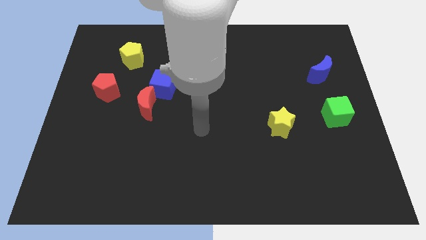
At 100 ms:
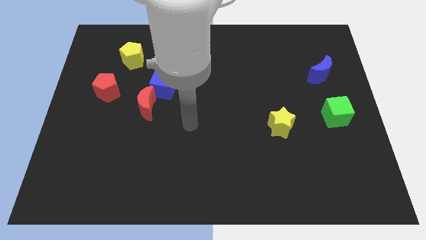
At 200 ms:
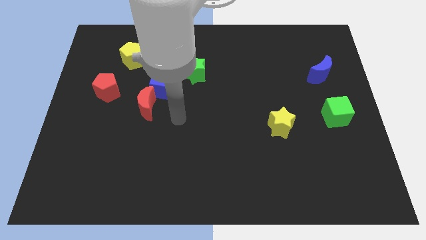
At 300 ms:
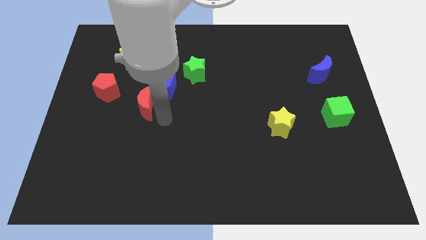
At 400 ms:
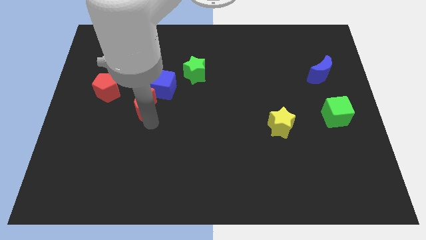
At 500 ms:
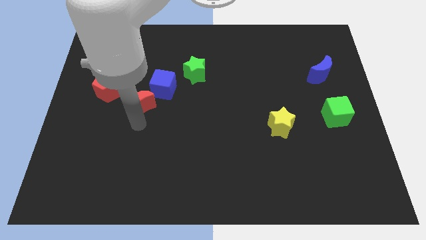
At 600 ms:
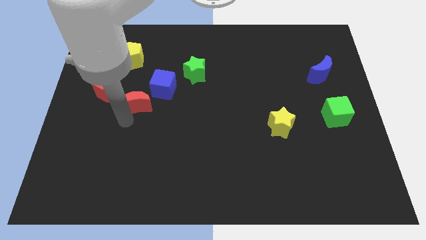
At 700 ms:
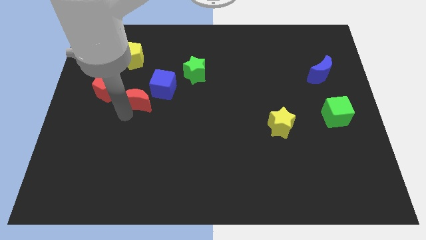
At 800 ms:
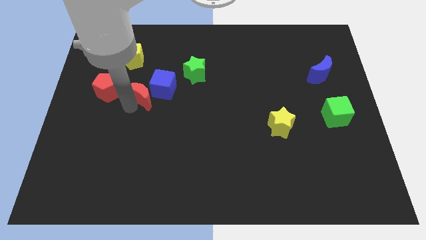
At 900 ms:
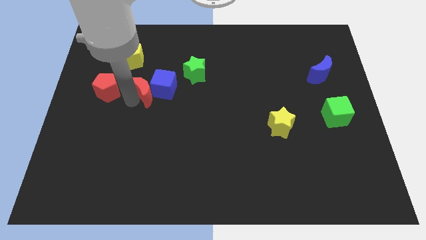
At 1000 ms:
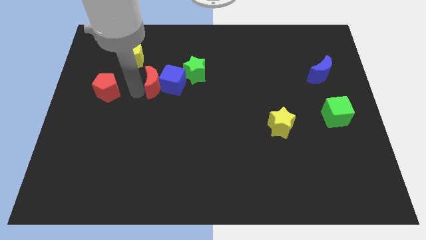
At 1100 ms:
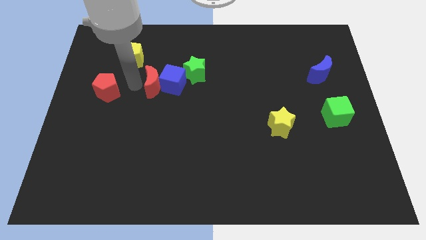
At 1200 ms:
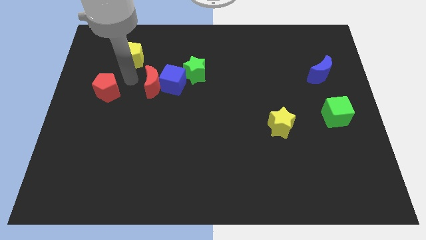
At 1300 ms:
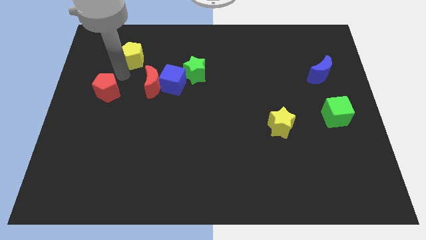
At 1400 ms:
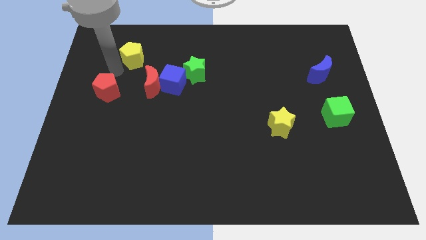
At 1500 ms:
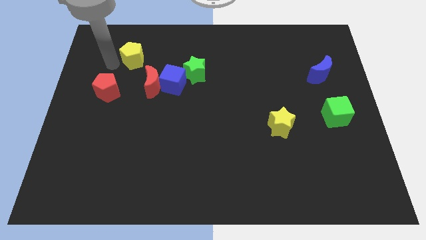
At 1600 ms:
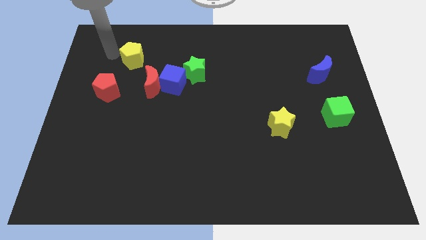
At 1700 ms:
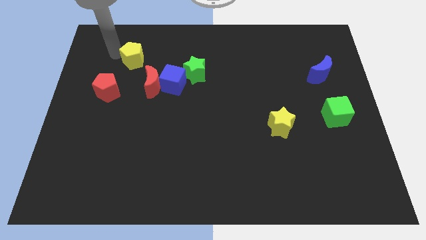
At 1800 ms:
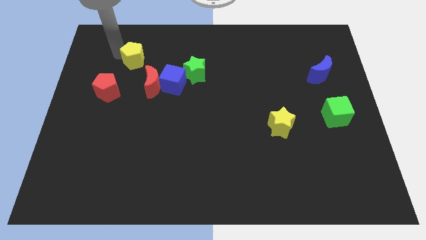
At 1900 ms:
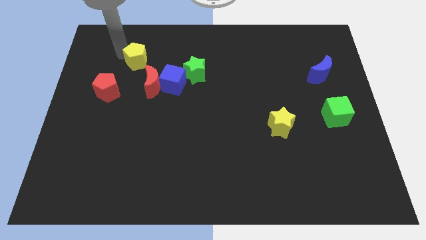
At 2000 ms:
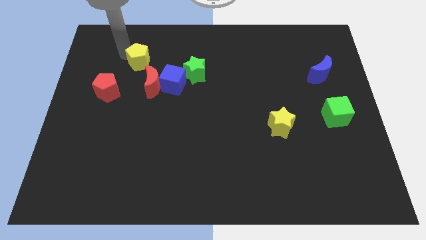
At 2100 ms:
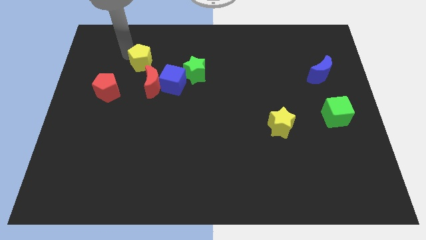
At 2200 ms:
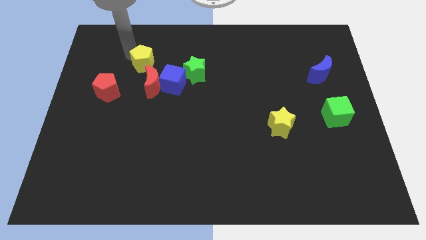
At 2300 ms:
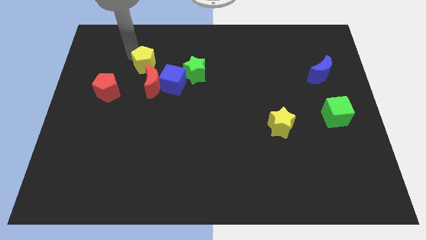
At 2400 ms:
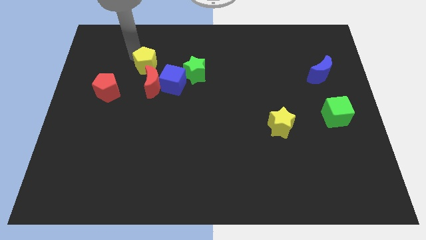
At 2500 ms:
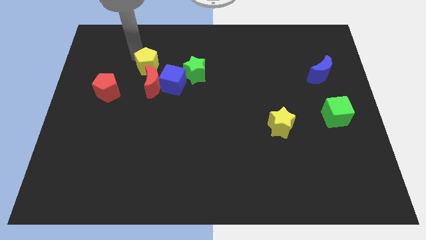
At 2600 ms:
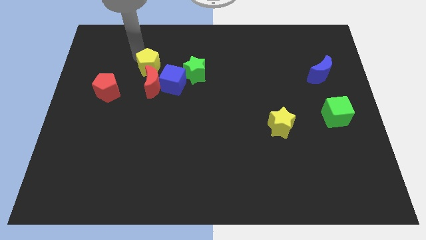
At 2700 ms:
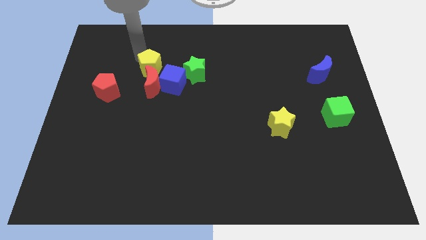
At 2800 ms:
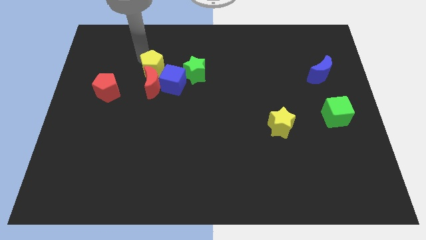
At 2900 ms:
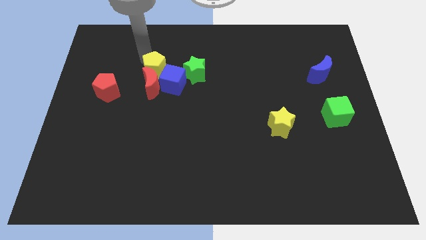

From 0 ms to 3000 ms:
push the yellow pentagon a little down and right

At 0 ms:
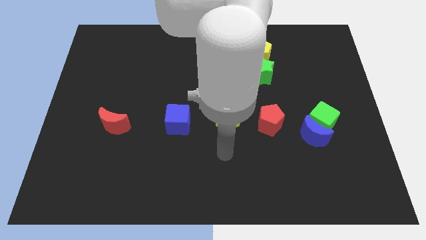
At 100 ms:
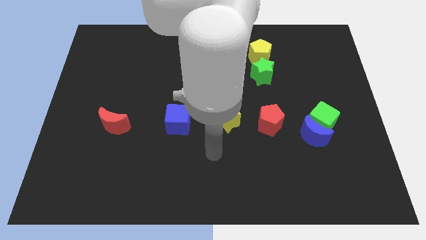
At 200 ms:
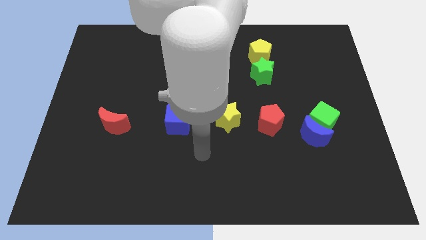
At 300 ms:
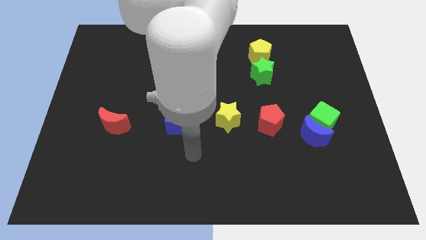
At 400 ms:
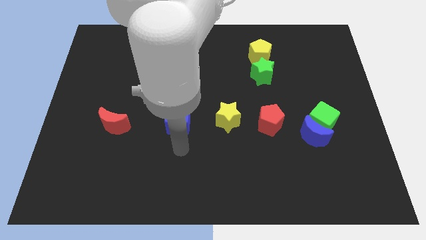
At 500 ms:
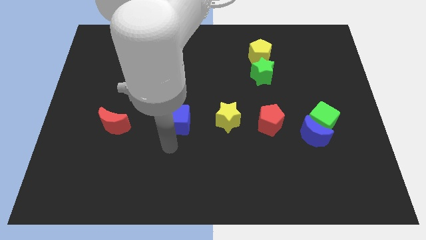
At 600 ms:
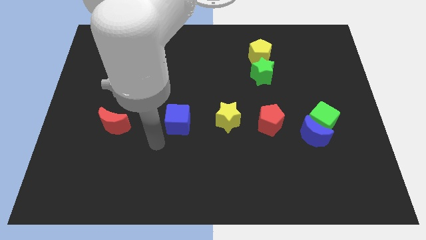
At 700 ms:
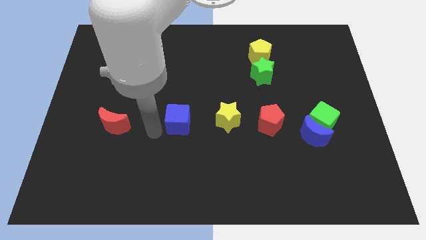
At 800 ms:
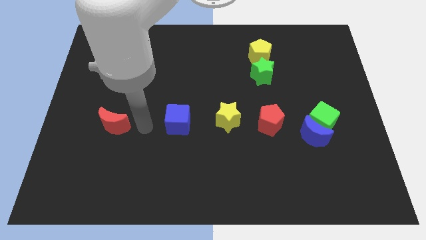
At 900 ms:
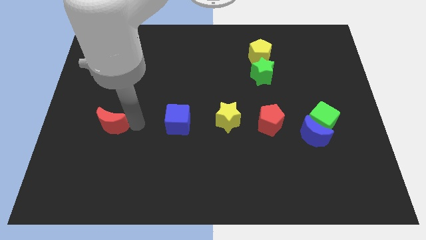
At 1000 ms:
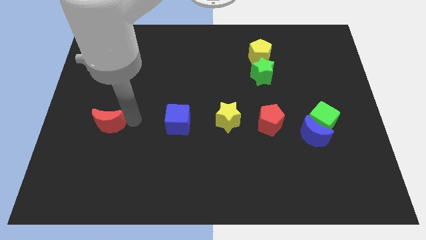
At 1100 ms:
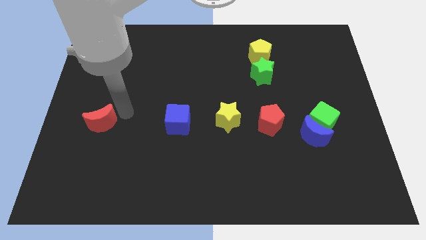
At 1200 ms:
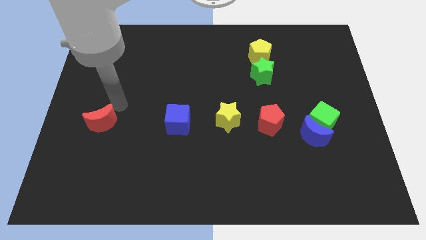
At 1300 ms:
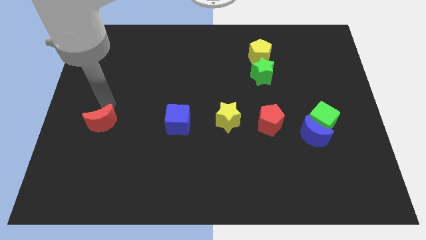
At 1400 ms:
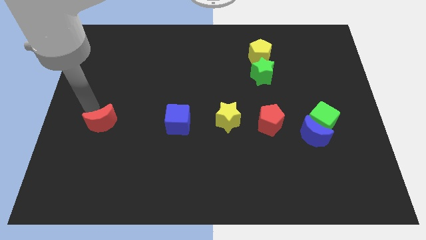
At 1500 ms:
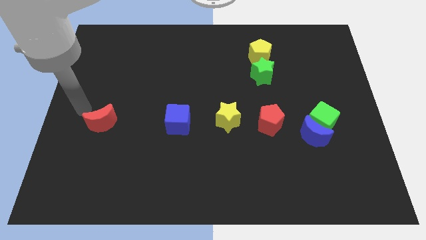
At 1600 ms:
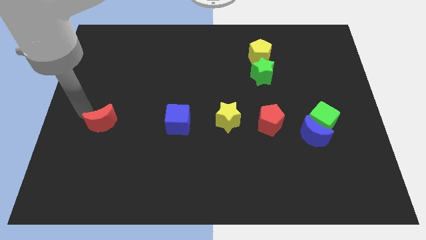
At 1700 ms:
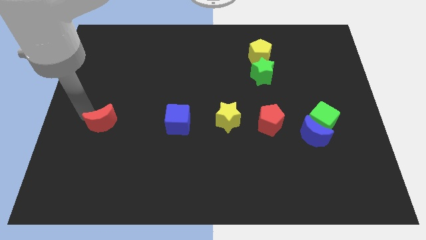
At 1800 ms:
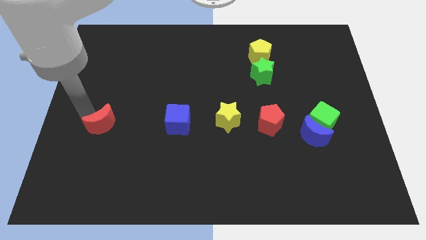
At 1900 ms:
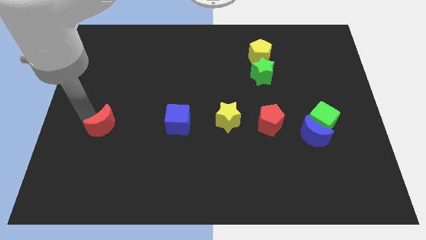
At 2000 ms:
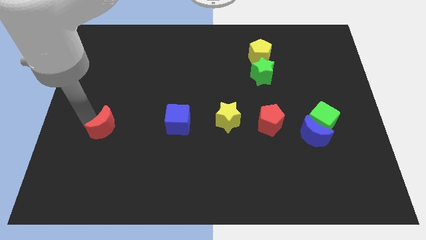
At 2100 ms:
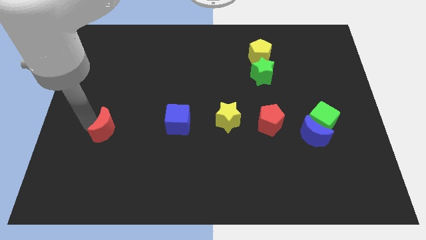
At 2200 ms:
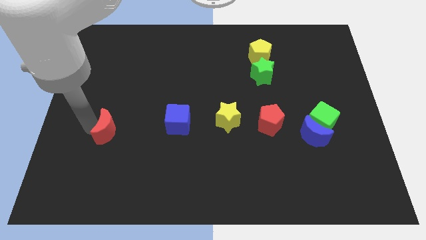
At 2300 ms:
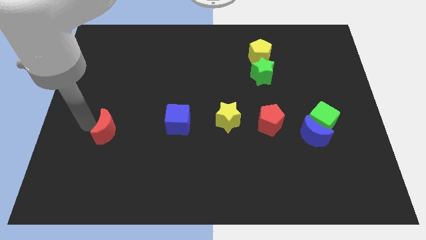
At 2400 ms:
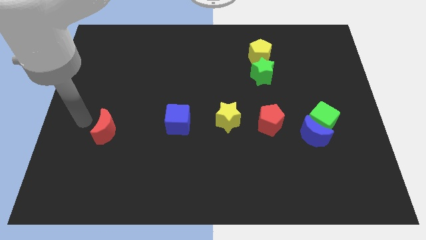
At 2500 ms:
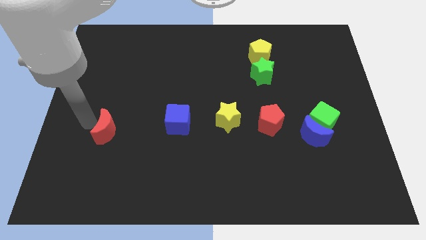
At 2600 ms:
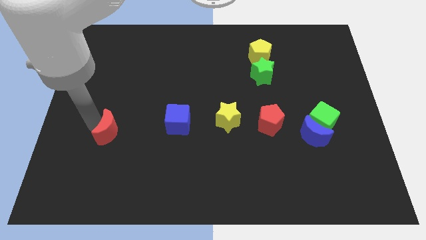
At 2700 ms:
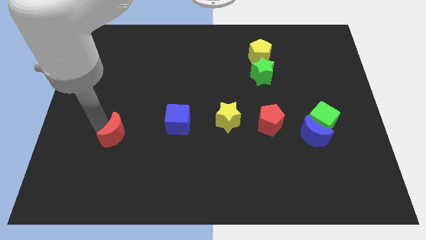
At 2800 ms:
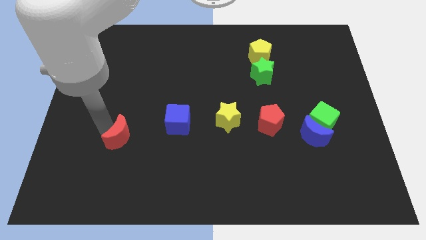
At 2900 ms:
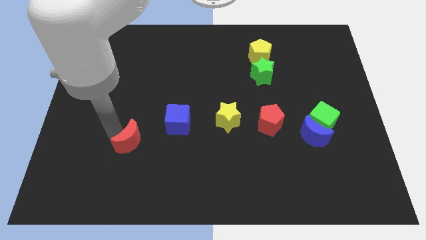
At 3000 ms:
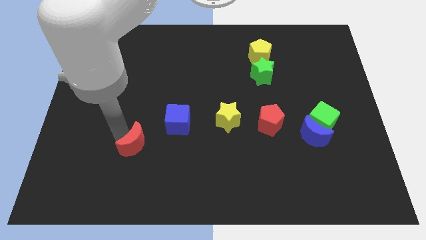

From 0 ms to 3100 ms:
slightly slide the red moon down and right diagonally

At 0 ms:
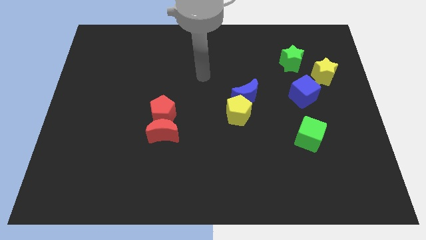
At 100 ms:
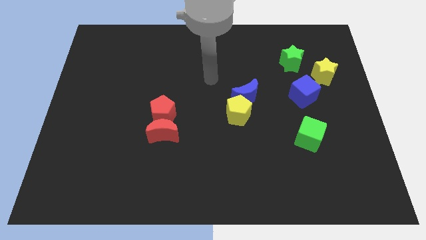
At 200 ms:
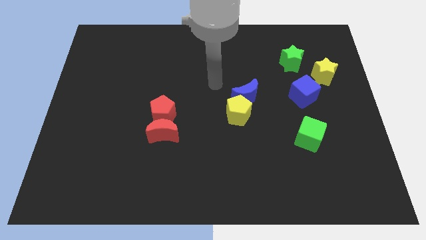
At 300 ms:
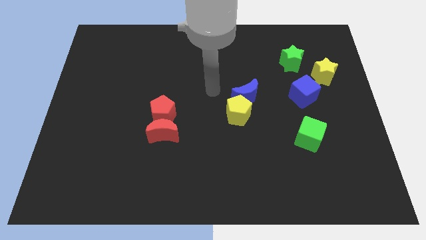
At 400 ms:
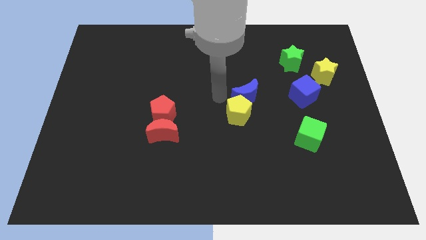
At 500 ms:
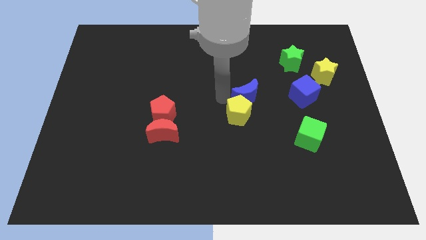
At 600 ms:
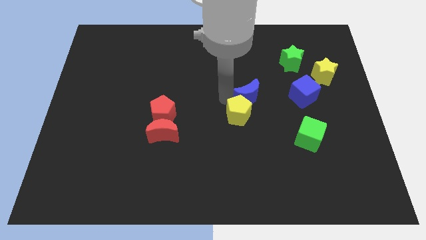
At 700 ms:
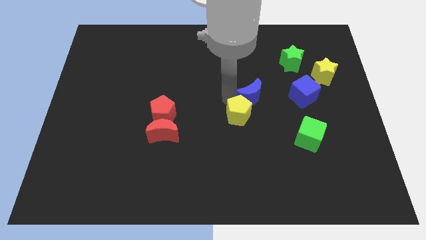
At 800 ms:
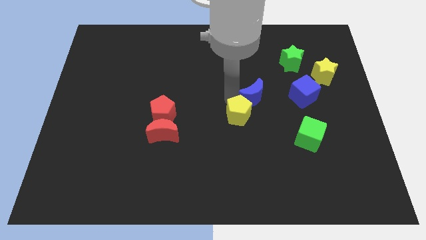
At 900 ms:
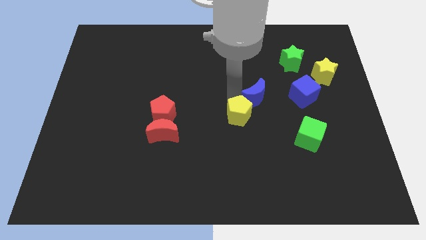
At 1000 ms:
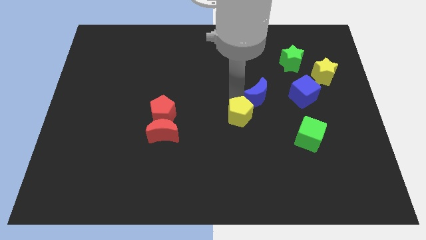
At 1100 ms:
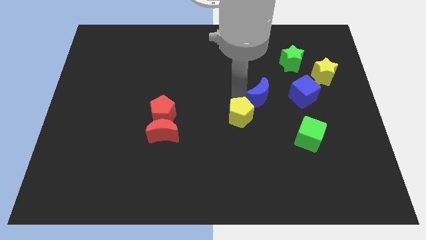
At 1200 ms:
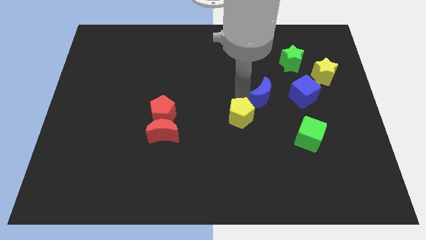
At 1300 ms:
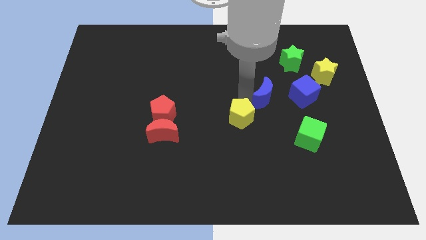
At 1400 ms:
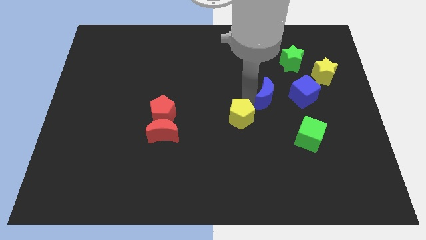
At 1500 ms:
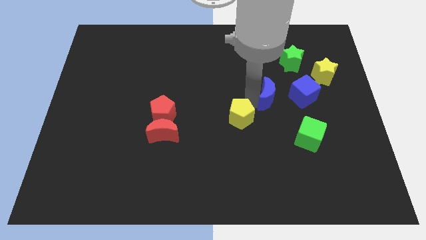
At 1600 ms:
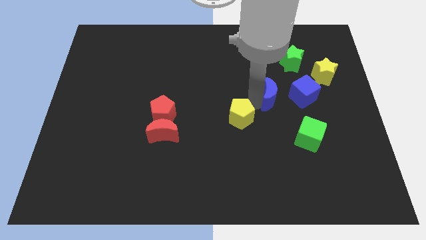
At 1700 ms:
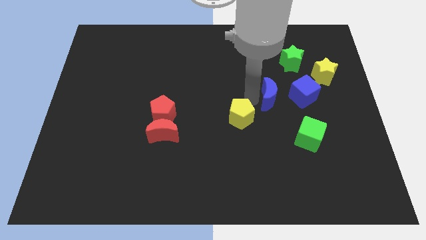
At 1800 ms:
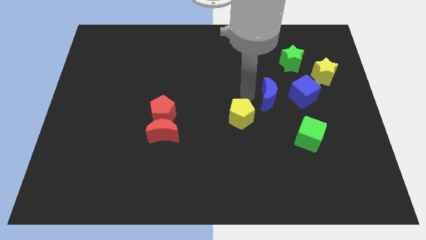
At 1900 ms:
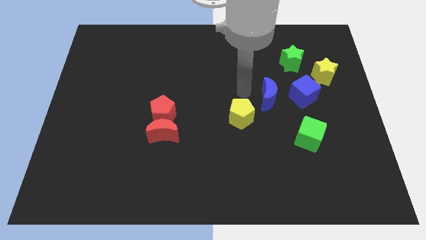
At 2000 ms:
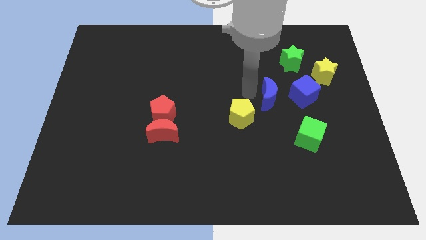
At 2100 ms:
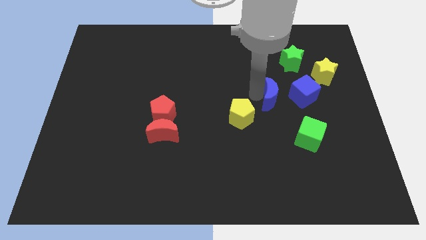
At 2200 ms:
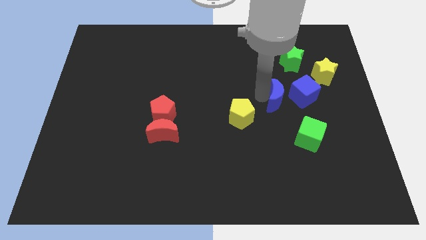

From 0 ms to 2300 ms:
slide the blue moon right a little
